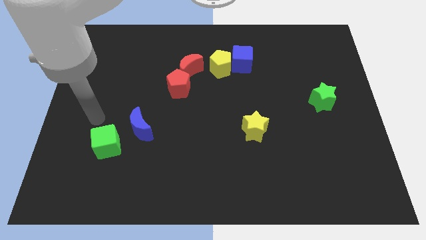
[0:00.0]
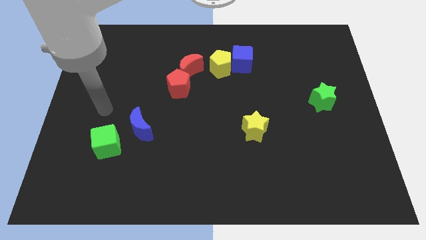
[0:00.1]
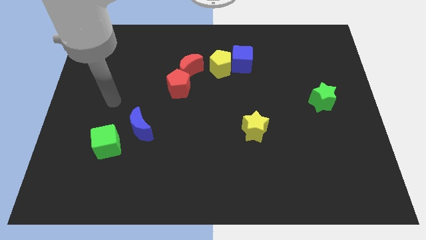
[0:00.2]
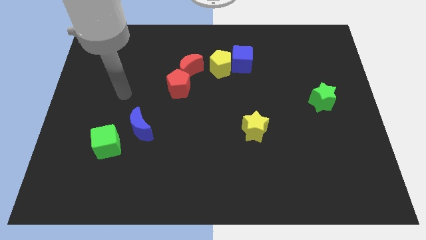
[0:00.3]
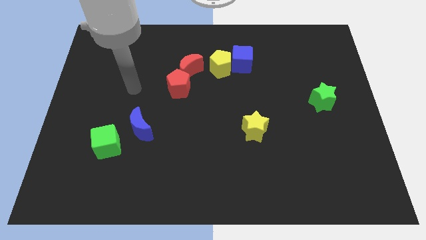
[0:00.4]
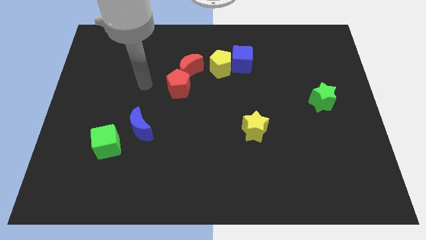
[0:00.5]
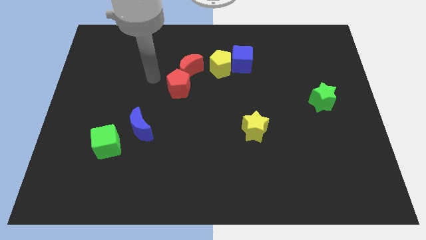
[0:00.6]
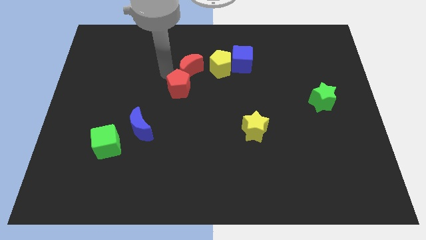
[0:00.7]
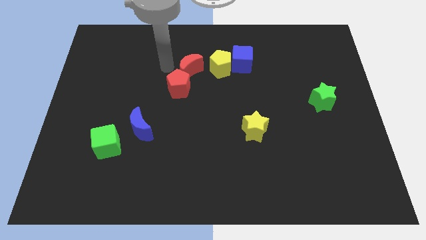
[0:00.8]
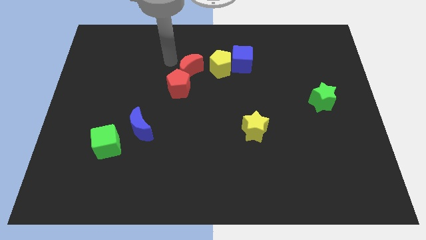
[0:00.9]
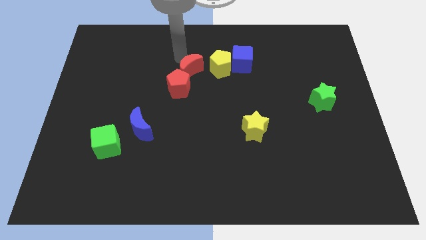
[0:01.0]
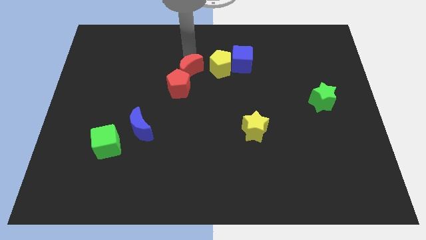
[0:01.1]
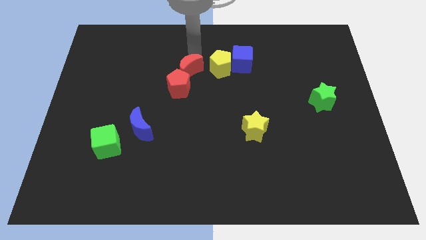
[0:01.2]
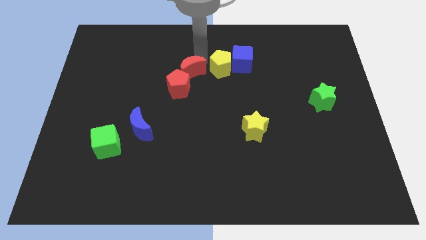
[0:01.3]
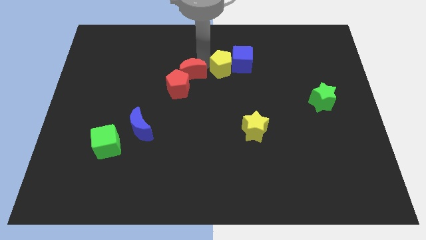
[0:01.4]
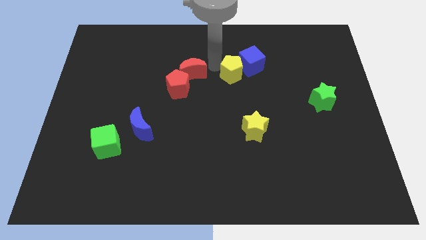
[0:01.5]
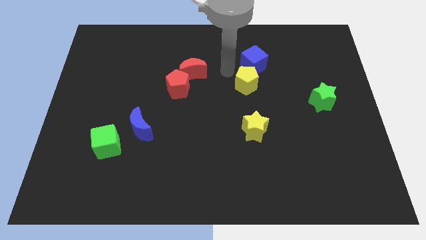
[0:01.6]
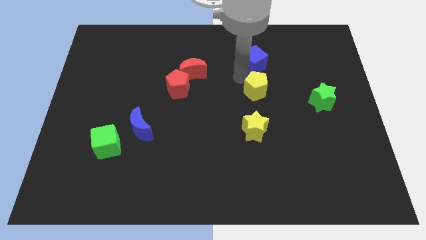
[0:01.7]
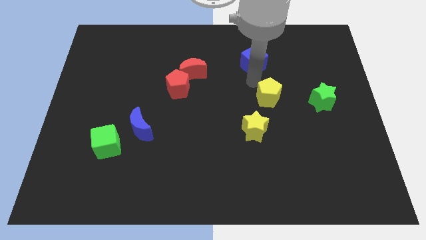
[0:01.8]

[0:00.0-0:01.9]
move the blue cube away from the yellow pentagon

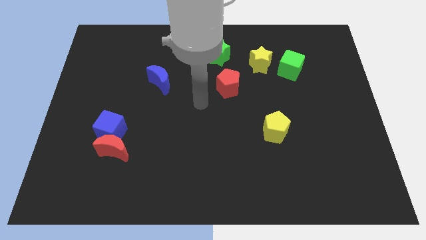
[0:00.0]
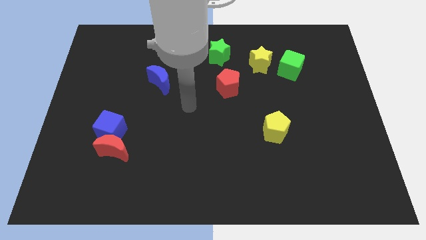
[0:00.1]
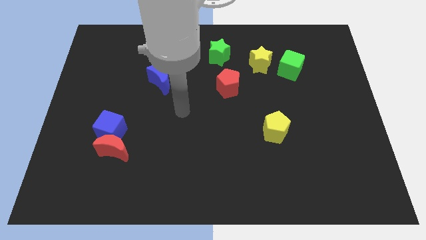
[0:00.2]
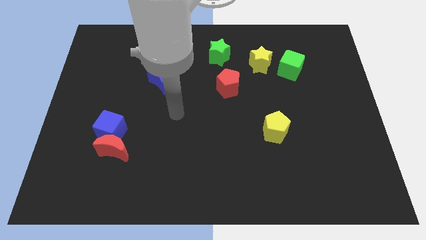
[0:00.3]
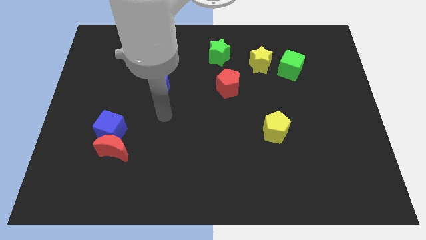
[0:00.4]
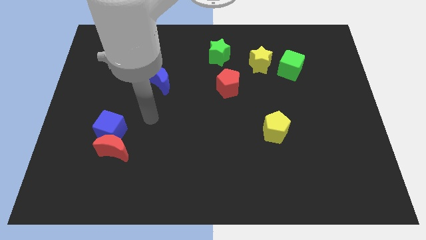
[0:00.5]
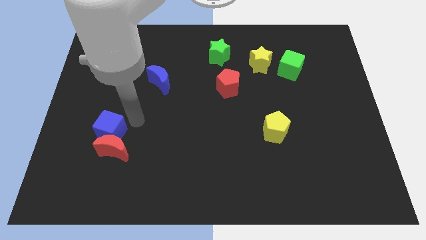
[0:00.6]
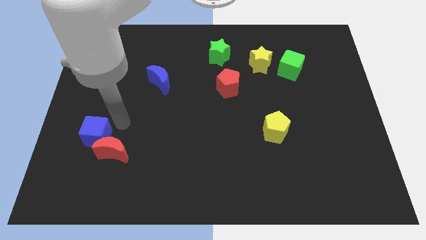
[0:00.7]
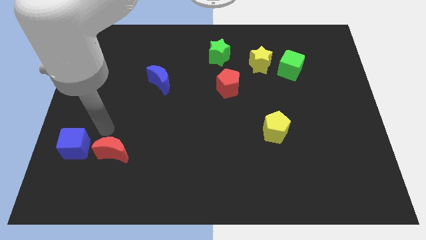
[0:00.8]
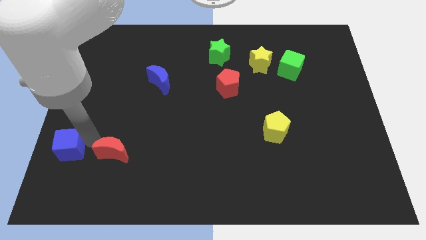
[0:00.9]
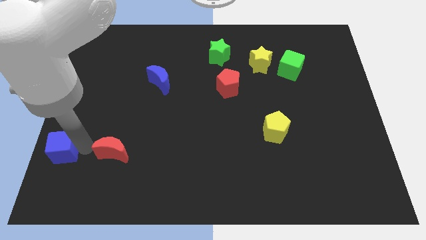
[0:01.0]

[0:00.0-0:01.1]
separate the red moon from the blue cube

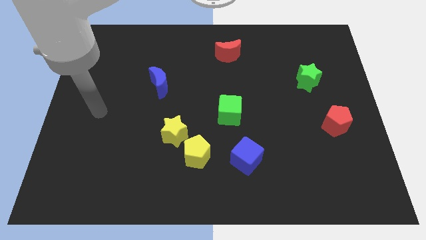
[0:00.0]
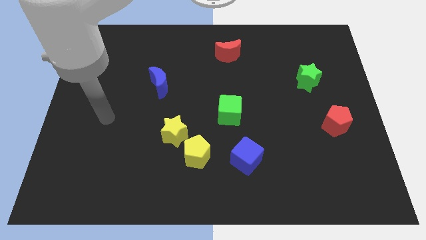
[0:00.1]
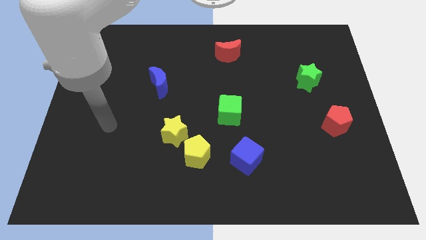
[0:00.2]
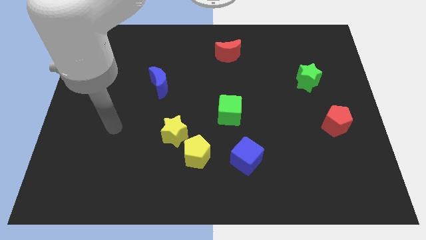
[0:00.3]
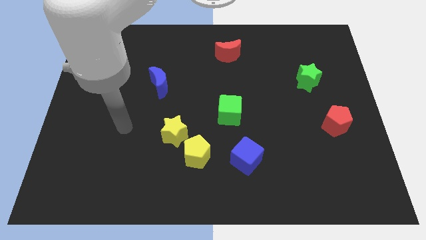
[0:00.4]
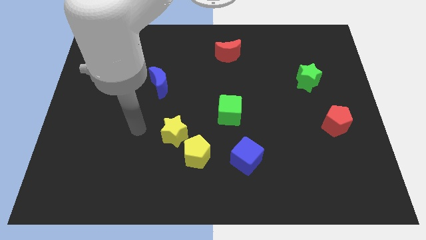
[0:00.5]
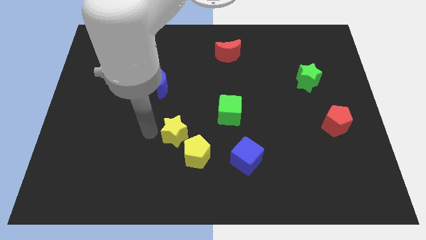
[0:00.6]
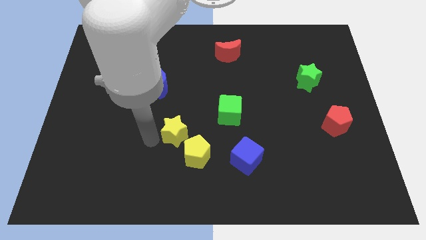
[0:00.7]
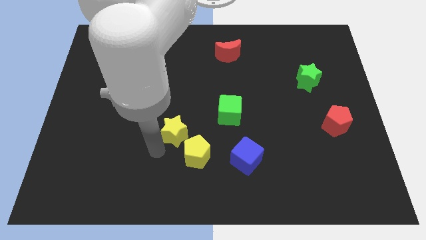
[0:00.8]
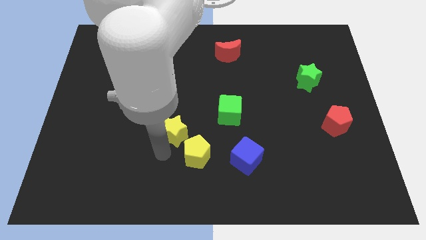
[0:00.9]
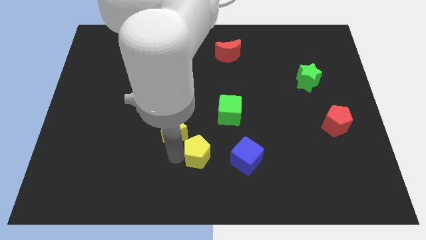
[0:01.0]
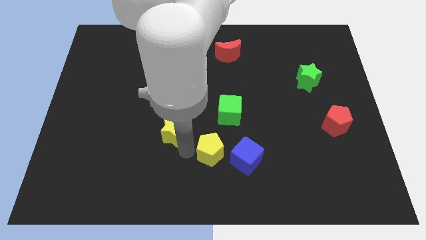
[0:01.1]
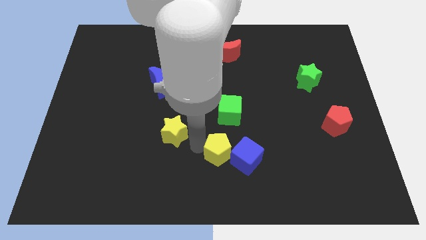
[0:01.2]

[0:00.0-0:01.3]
move the yellow star away from the yellow pentagon

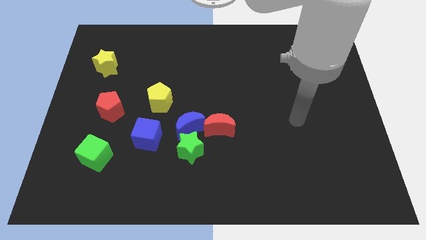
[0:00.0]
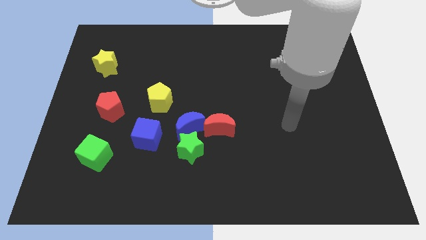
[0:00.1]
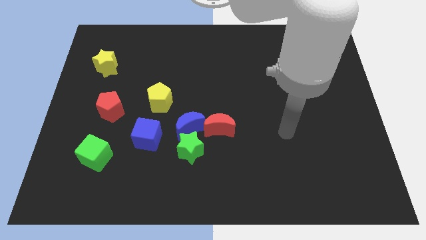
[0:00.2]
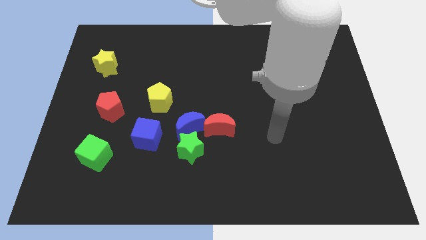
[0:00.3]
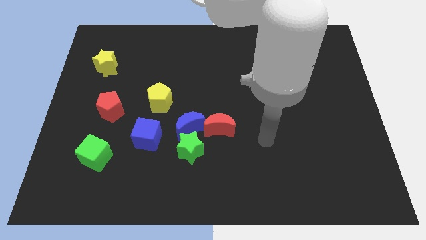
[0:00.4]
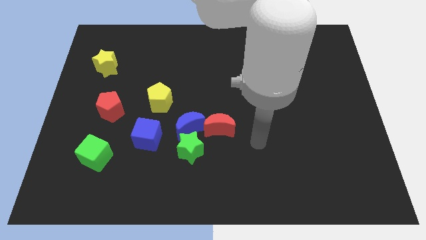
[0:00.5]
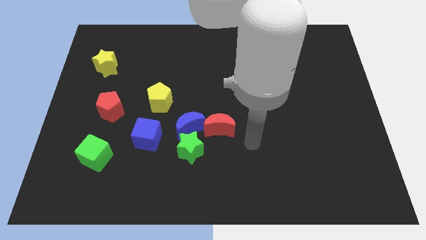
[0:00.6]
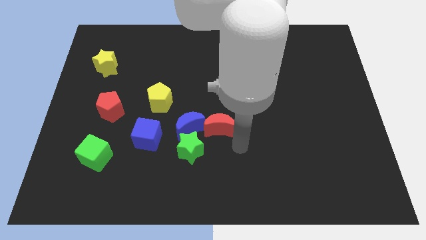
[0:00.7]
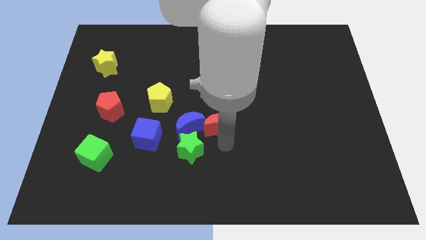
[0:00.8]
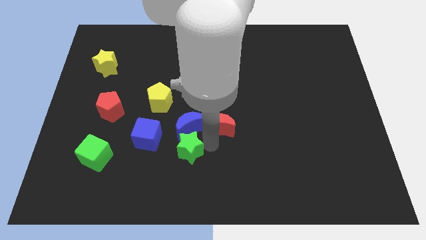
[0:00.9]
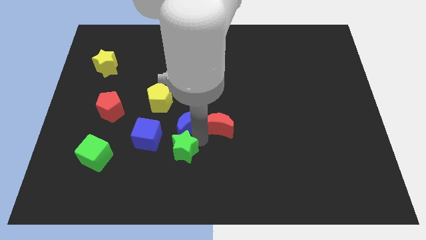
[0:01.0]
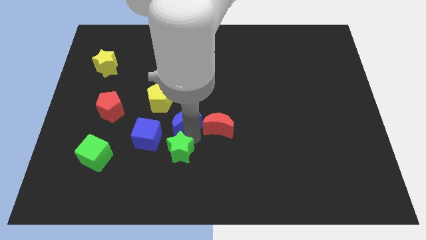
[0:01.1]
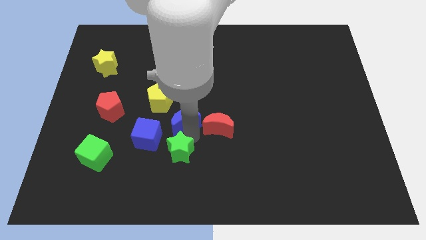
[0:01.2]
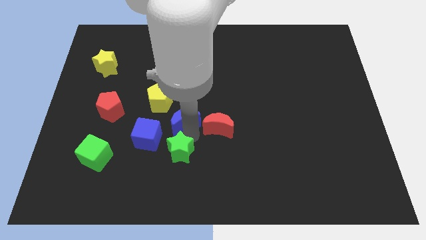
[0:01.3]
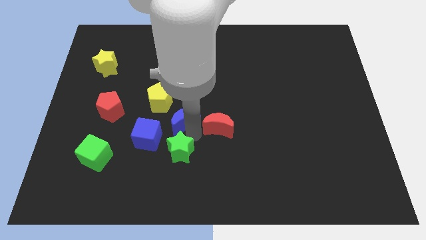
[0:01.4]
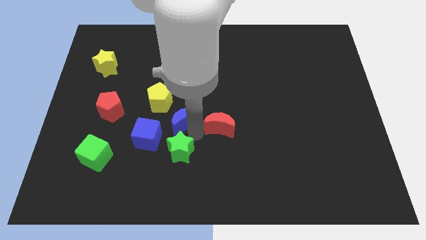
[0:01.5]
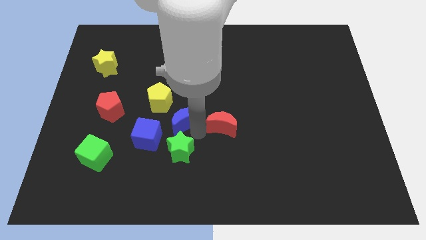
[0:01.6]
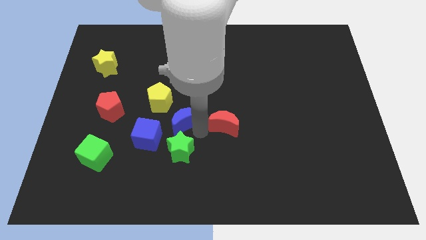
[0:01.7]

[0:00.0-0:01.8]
separate the red moon from the blue moon and green star

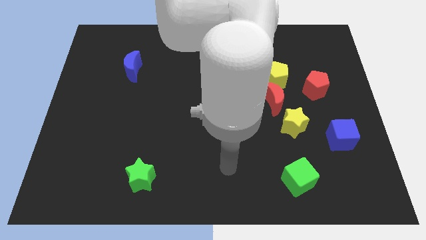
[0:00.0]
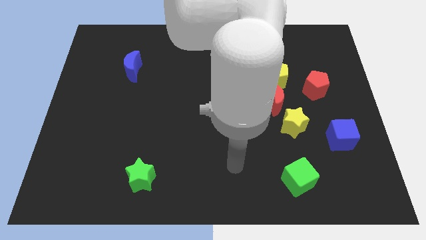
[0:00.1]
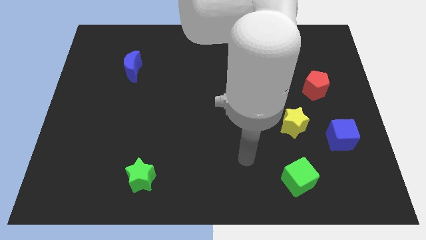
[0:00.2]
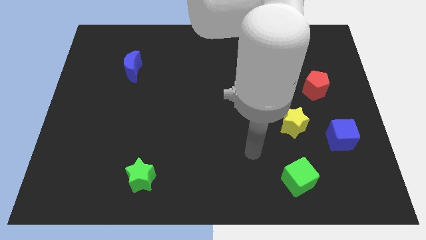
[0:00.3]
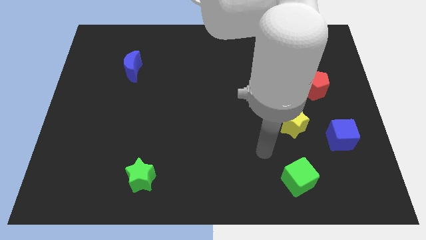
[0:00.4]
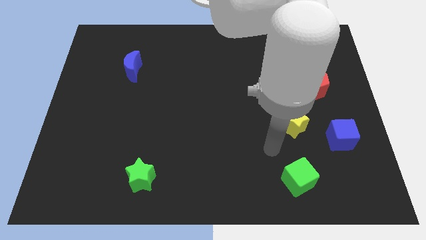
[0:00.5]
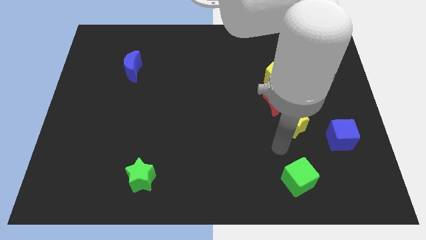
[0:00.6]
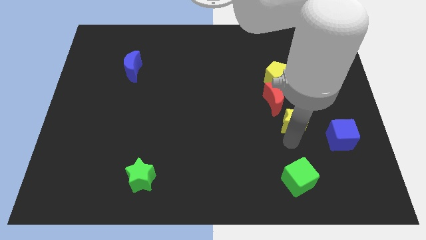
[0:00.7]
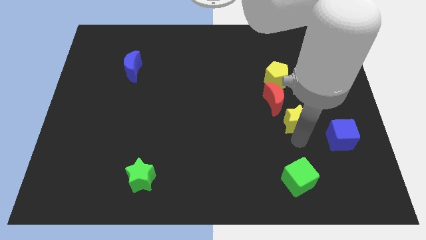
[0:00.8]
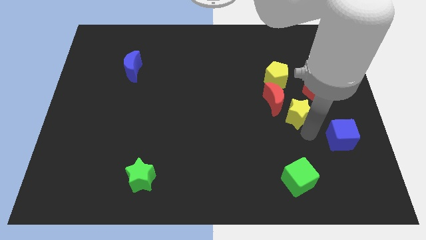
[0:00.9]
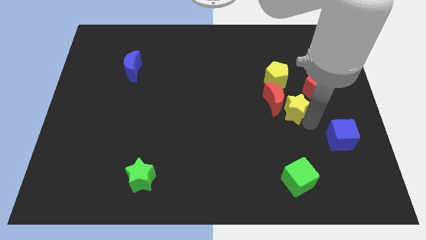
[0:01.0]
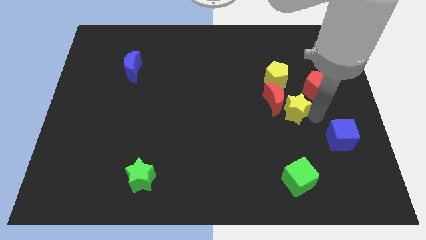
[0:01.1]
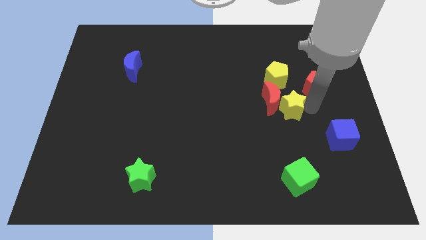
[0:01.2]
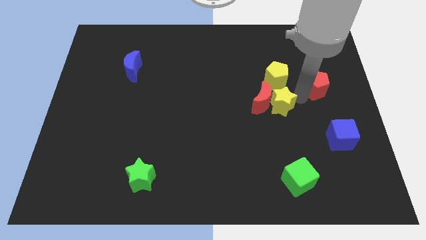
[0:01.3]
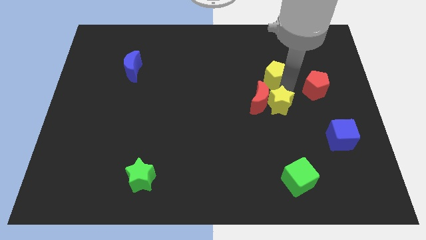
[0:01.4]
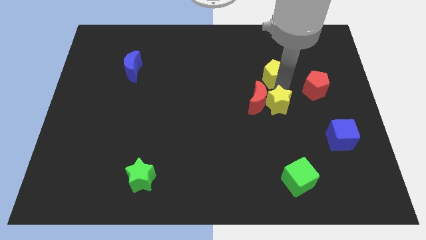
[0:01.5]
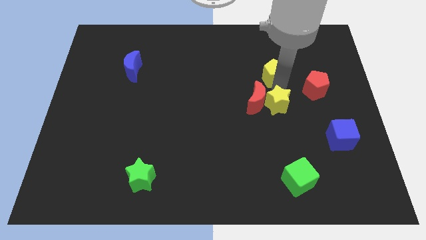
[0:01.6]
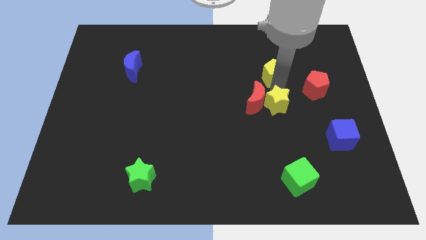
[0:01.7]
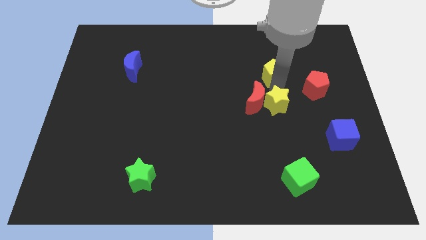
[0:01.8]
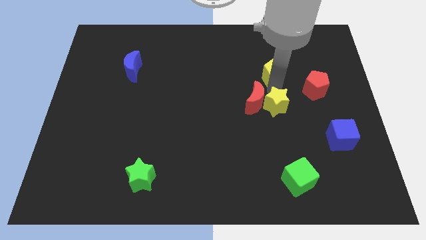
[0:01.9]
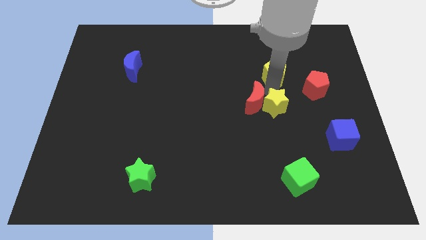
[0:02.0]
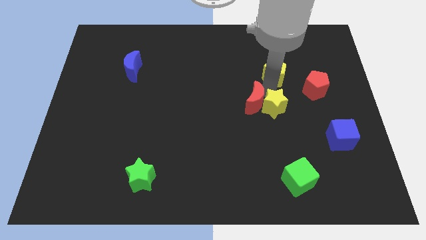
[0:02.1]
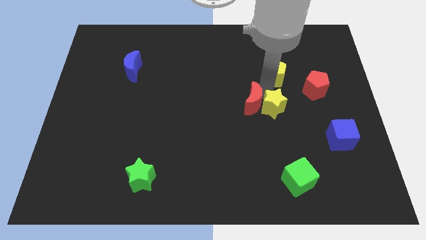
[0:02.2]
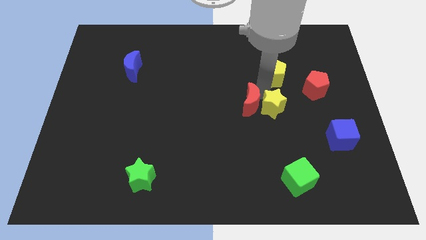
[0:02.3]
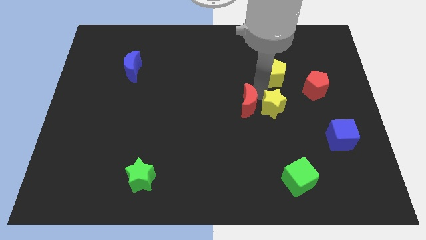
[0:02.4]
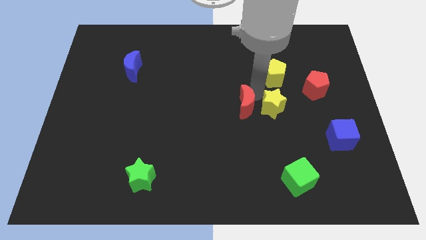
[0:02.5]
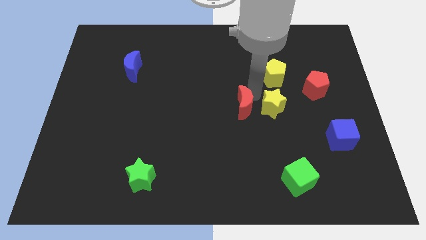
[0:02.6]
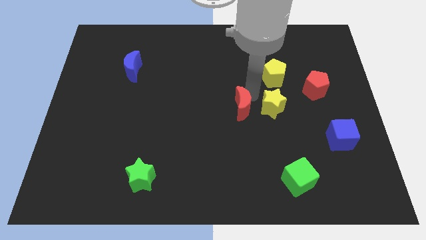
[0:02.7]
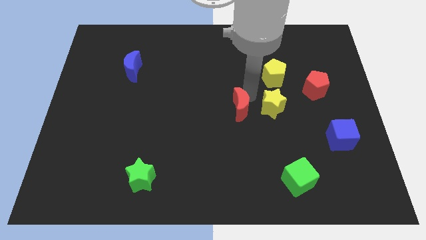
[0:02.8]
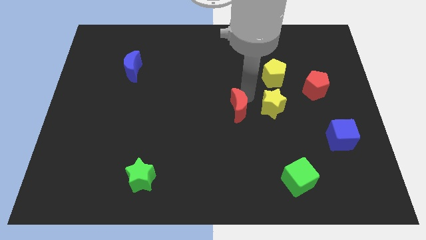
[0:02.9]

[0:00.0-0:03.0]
separate the red moon from the yellow pentagon and yellow star

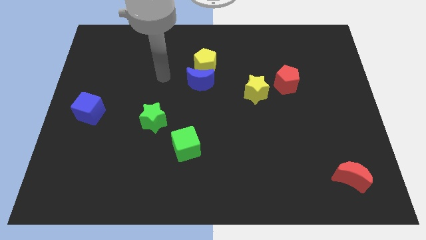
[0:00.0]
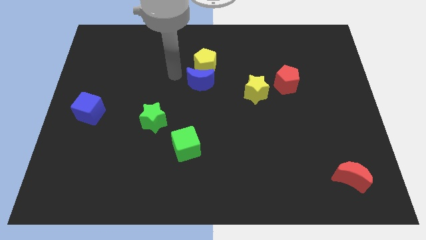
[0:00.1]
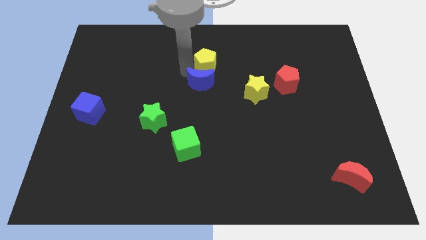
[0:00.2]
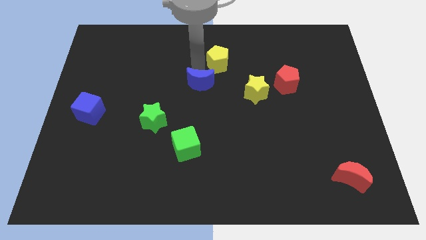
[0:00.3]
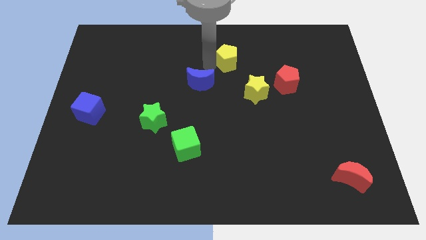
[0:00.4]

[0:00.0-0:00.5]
move the blue moon away from the yellow pentagon
